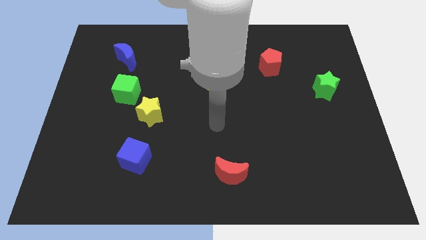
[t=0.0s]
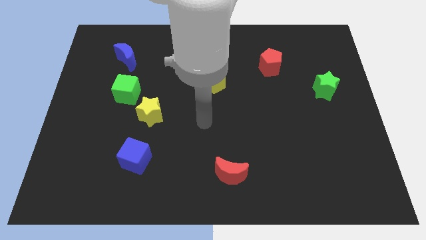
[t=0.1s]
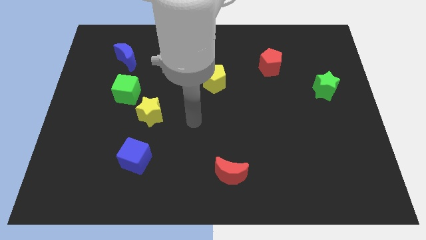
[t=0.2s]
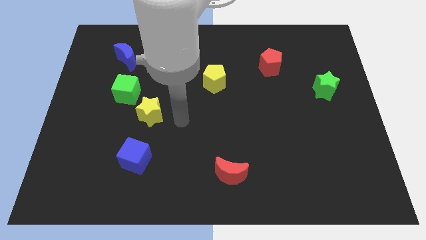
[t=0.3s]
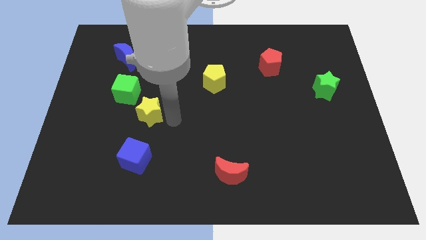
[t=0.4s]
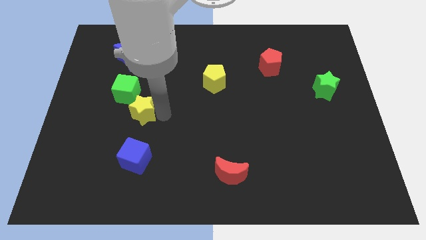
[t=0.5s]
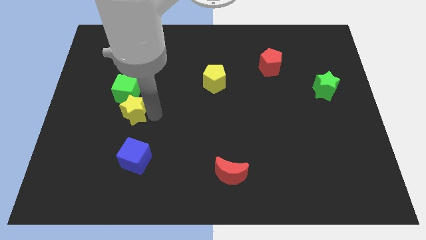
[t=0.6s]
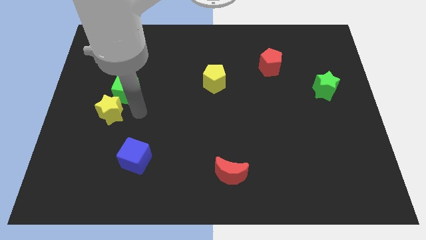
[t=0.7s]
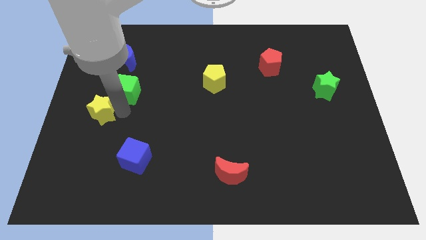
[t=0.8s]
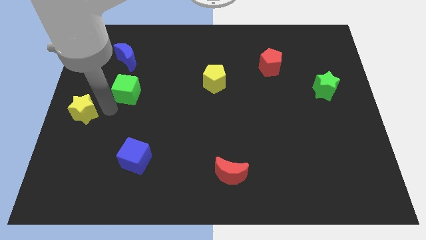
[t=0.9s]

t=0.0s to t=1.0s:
pull the green cube apart from the yellow star

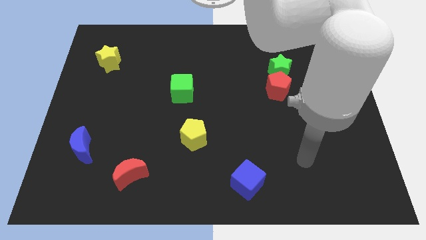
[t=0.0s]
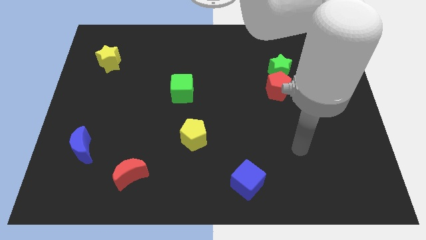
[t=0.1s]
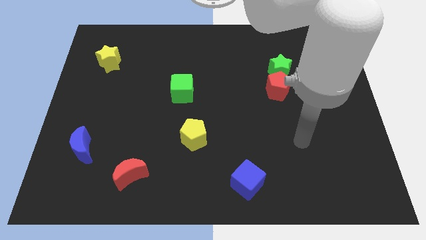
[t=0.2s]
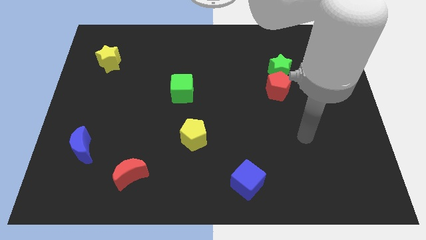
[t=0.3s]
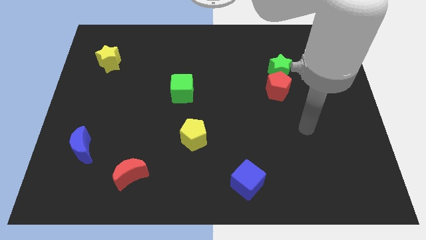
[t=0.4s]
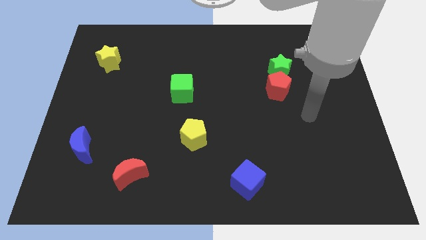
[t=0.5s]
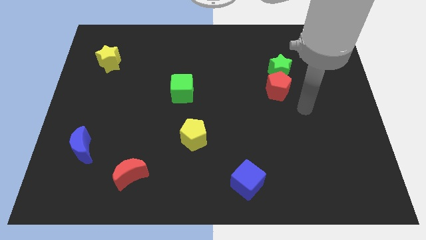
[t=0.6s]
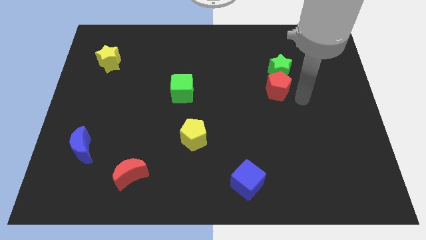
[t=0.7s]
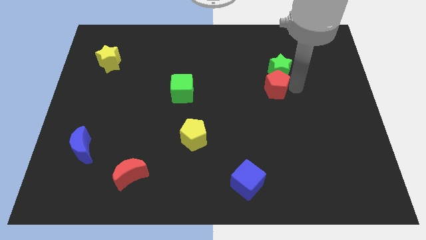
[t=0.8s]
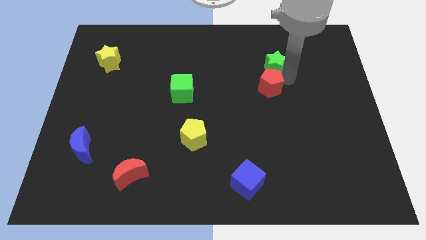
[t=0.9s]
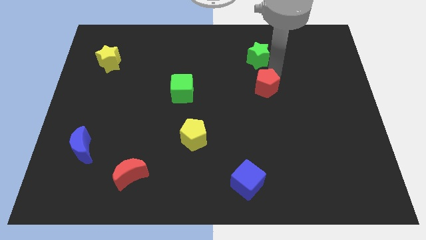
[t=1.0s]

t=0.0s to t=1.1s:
separate the red pentagon from the green star

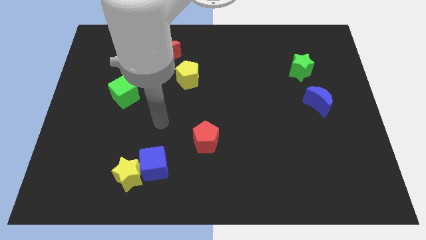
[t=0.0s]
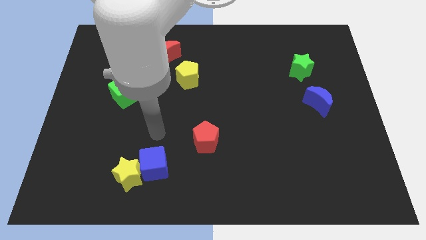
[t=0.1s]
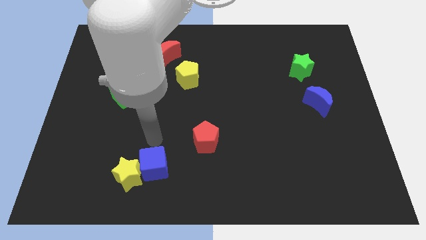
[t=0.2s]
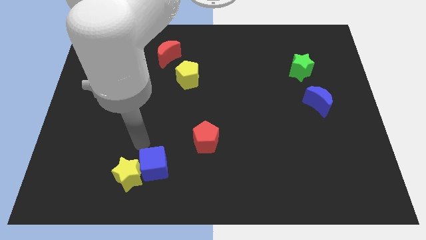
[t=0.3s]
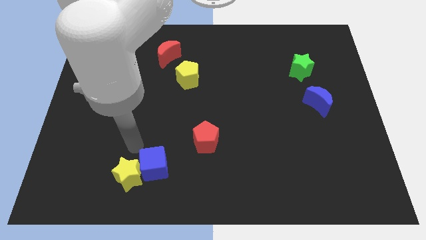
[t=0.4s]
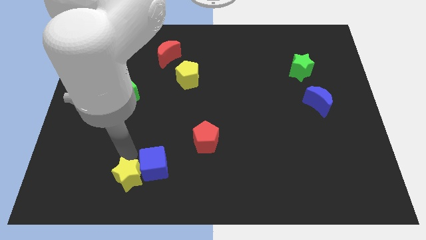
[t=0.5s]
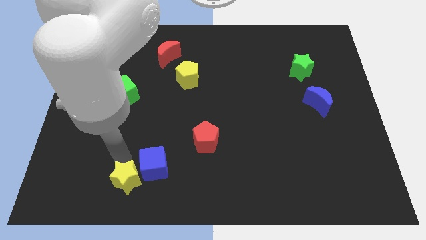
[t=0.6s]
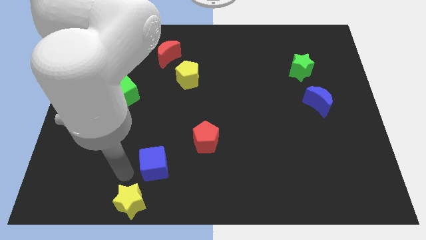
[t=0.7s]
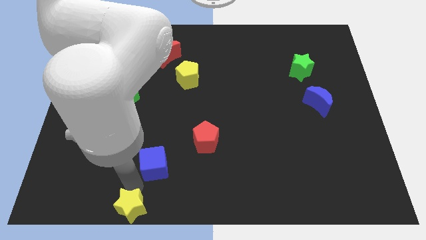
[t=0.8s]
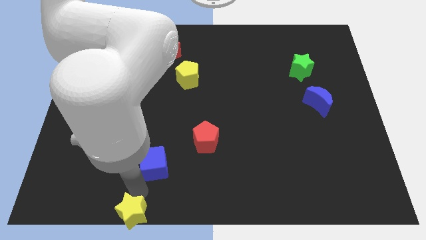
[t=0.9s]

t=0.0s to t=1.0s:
move the blue cube away from the yellow star

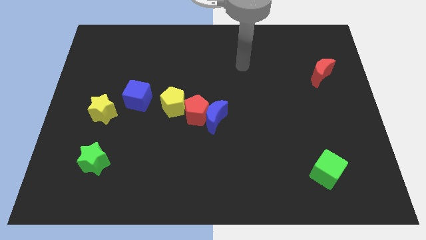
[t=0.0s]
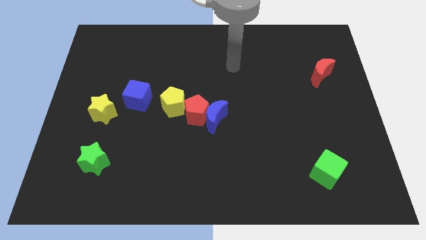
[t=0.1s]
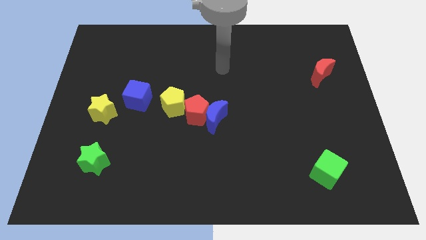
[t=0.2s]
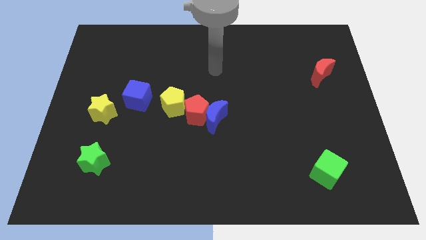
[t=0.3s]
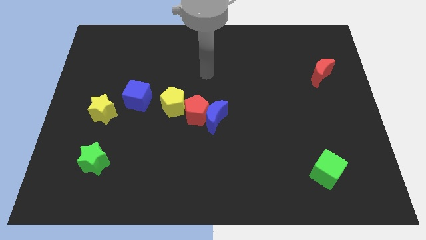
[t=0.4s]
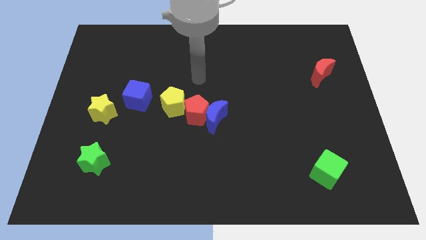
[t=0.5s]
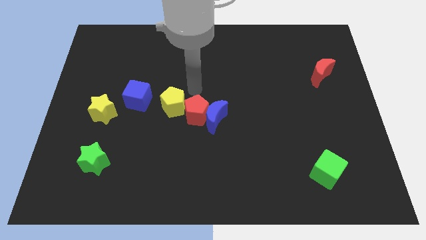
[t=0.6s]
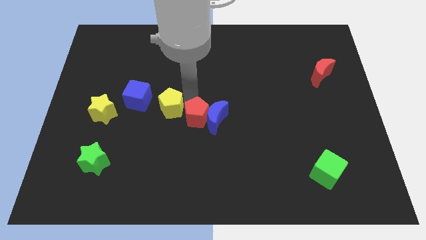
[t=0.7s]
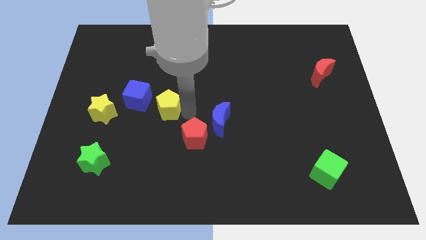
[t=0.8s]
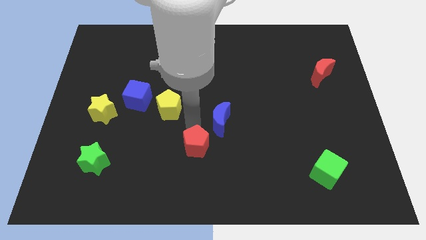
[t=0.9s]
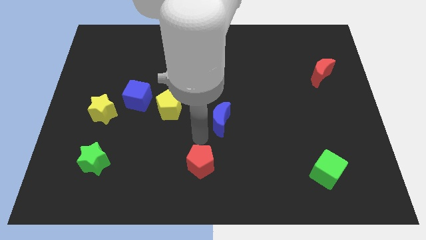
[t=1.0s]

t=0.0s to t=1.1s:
pull the blue moon apart from the red pentagon

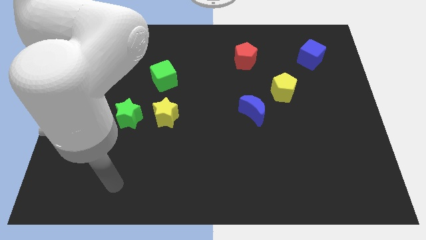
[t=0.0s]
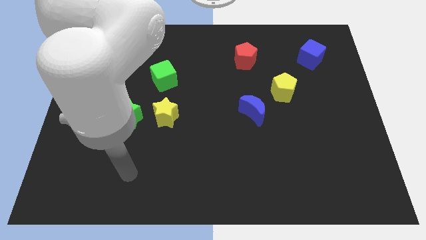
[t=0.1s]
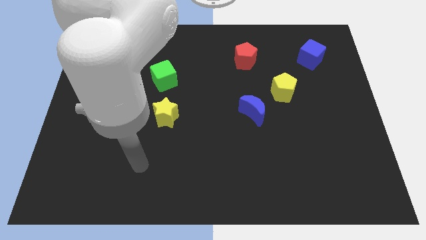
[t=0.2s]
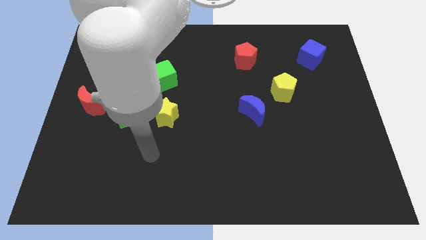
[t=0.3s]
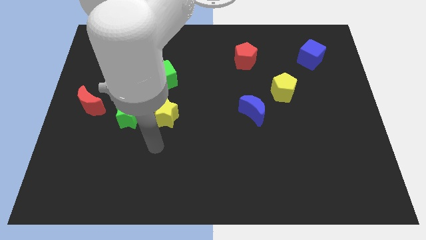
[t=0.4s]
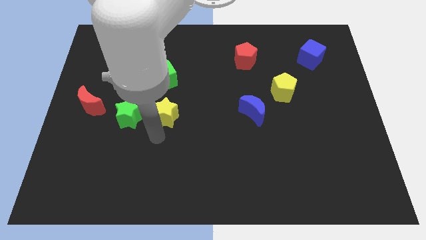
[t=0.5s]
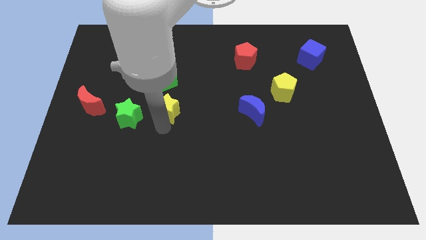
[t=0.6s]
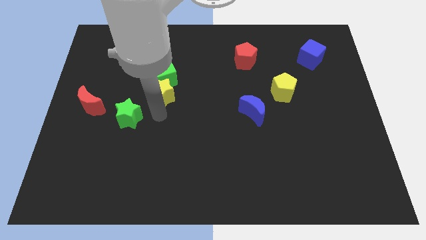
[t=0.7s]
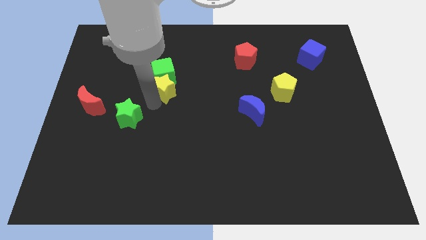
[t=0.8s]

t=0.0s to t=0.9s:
separate the green star from the yellow star

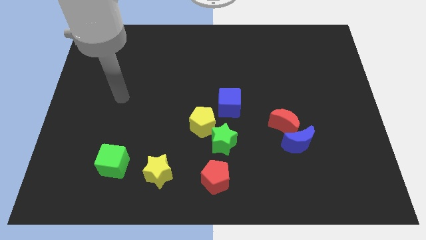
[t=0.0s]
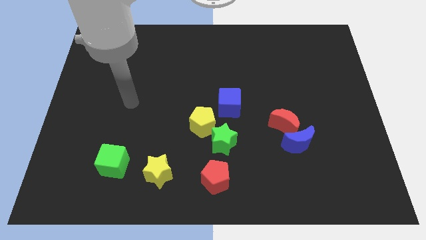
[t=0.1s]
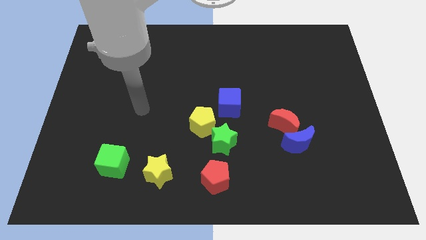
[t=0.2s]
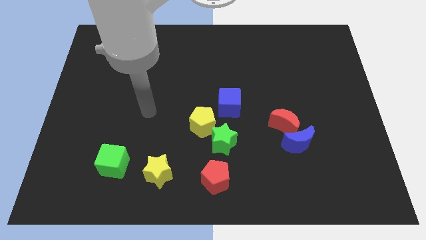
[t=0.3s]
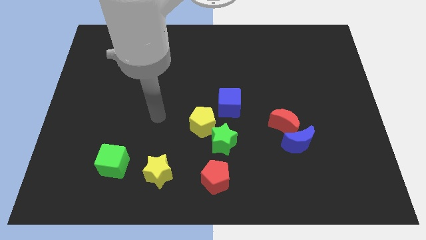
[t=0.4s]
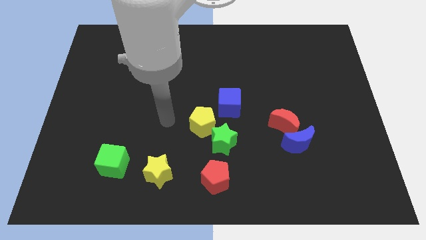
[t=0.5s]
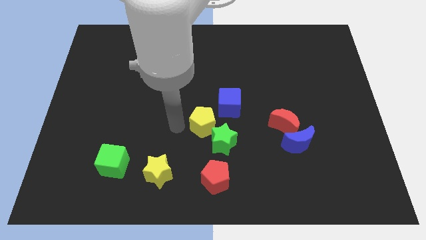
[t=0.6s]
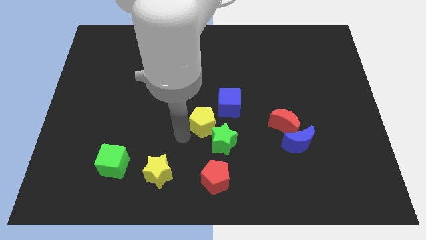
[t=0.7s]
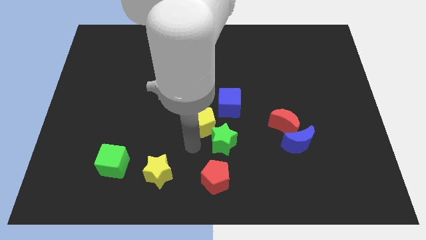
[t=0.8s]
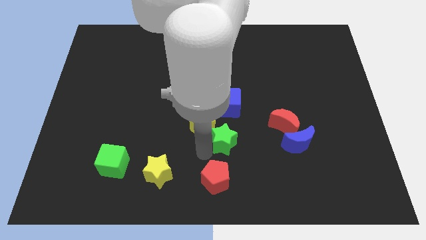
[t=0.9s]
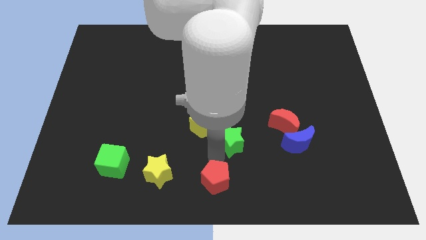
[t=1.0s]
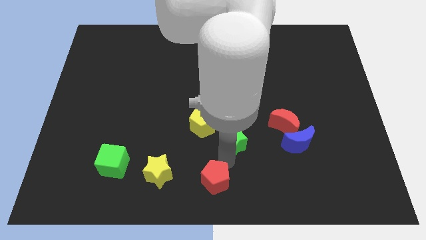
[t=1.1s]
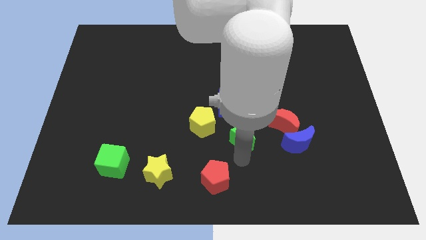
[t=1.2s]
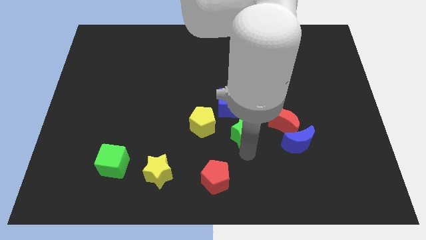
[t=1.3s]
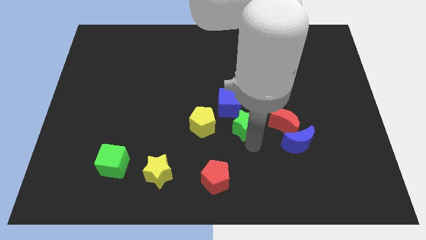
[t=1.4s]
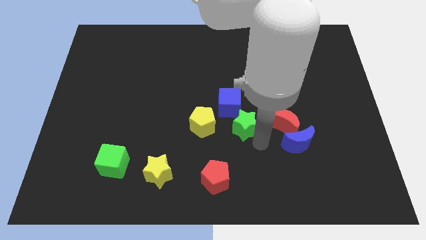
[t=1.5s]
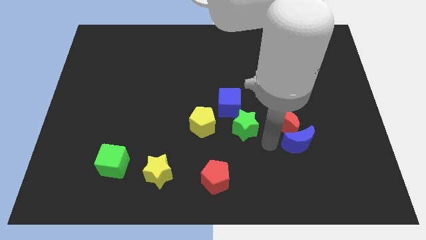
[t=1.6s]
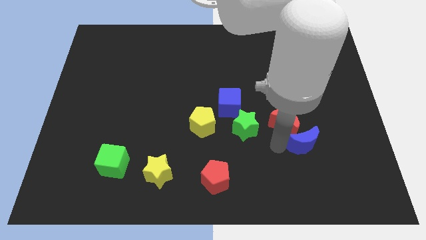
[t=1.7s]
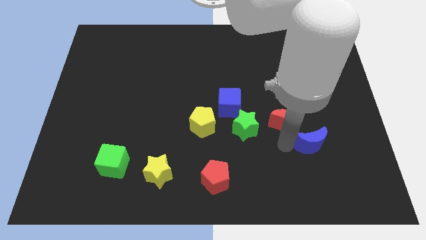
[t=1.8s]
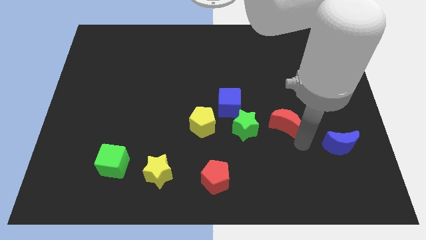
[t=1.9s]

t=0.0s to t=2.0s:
pull the red moon apart from the blue moon

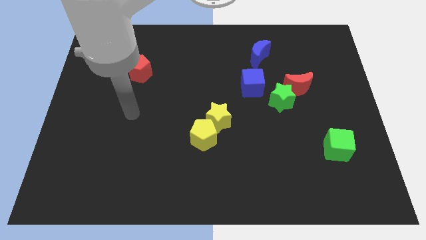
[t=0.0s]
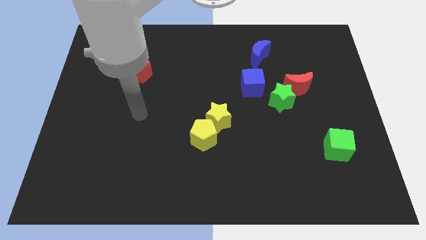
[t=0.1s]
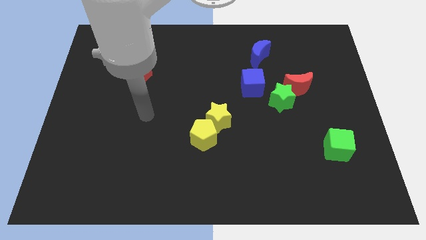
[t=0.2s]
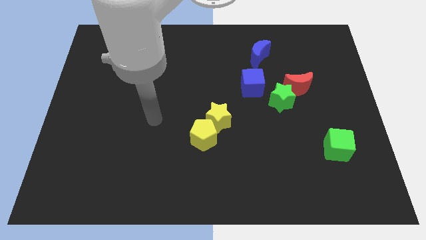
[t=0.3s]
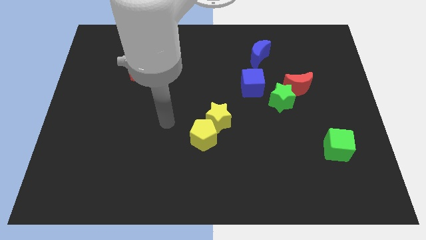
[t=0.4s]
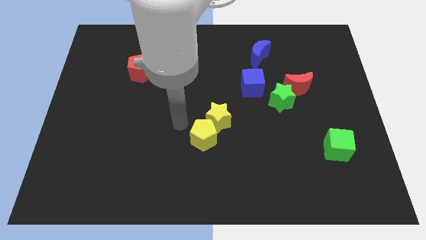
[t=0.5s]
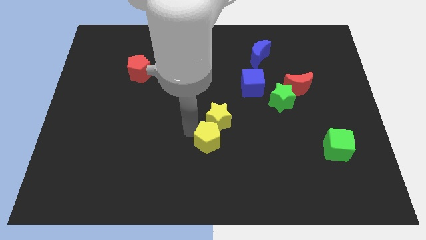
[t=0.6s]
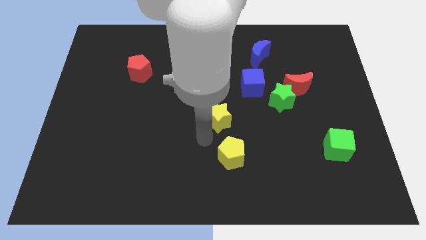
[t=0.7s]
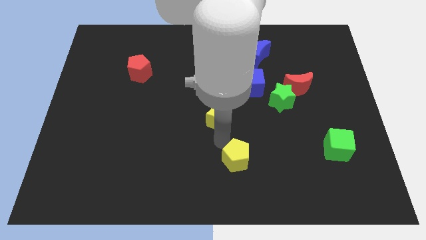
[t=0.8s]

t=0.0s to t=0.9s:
separate the yellow star from the yellow pentagon

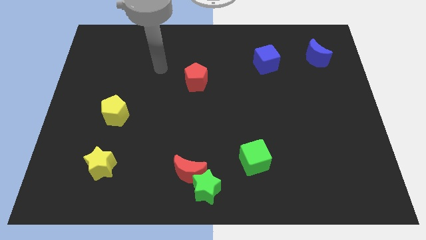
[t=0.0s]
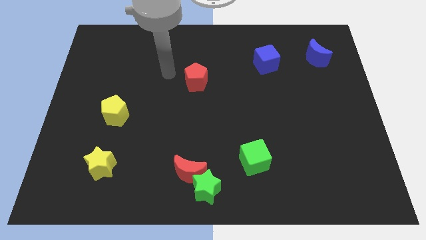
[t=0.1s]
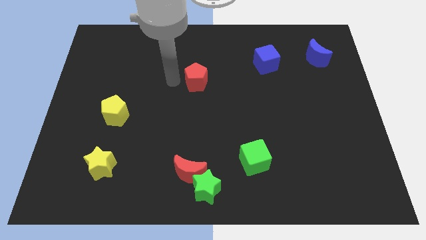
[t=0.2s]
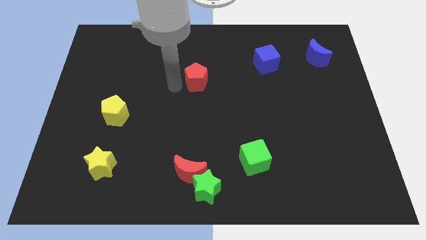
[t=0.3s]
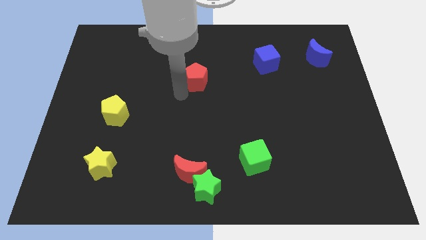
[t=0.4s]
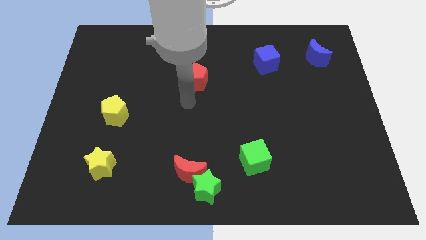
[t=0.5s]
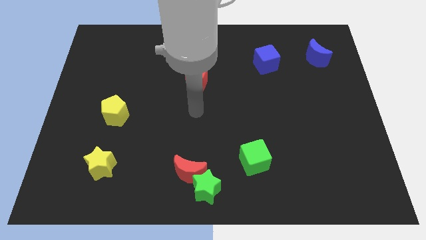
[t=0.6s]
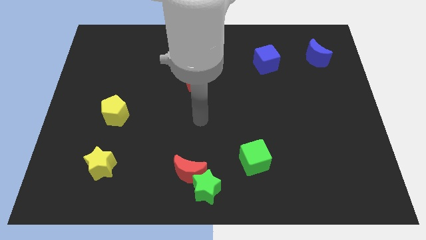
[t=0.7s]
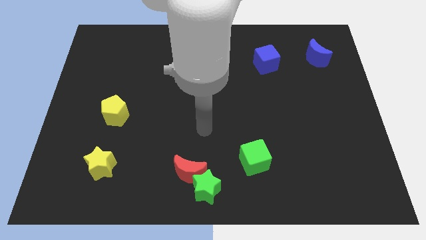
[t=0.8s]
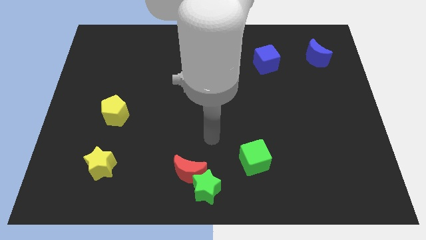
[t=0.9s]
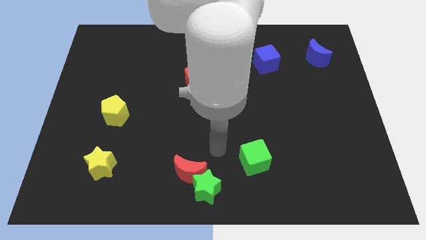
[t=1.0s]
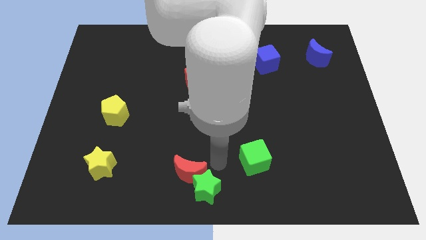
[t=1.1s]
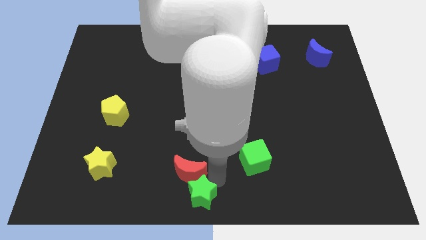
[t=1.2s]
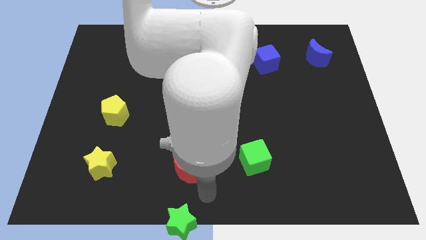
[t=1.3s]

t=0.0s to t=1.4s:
move the red moon away from the green star

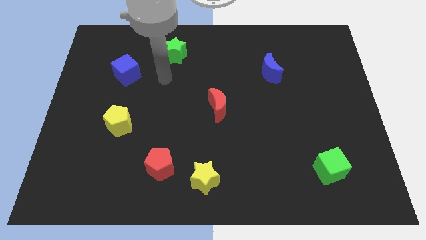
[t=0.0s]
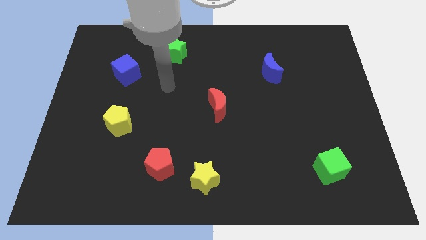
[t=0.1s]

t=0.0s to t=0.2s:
separate the red pentagon from the yellow star
